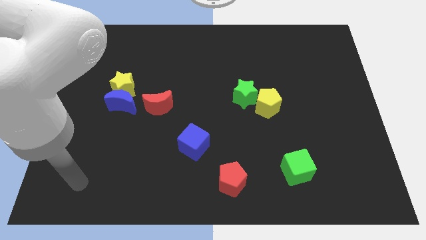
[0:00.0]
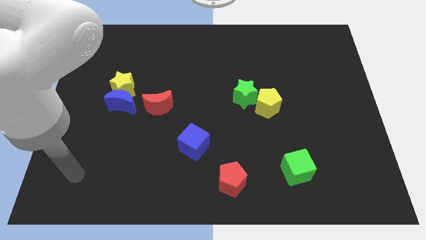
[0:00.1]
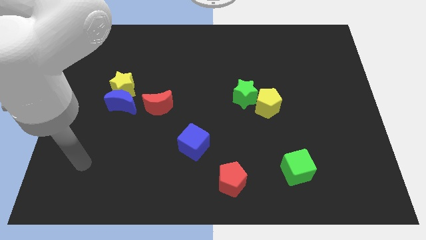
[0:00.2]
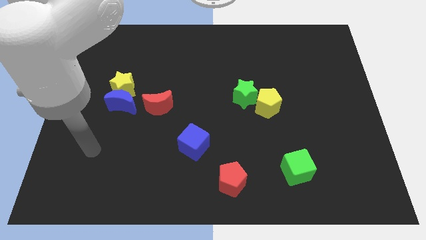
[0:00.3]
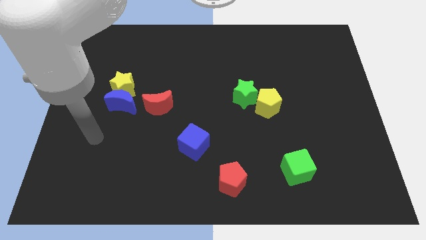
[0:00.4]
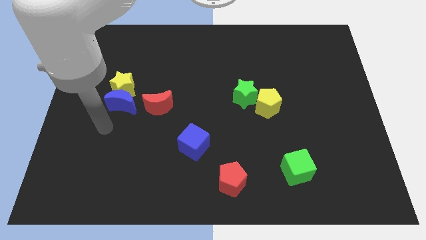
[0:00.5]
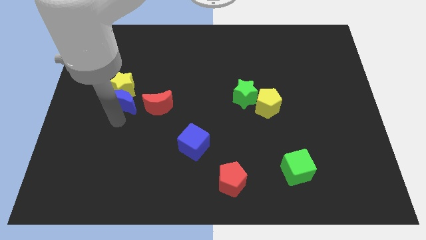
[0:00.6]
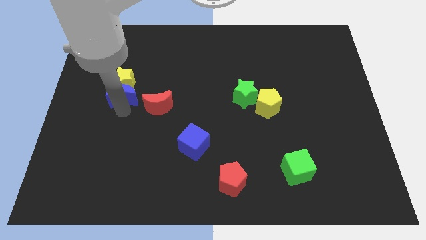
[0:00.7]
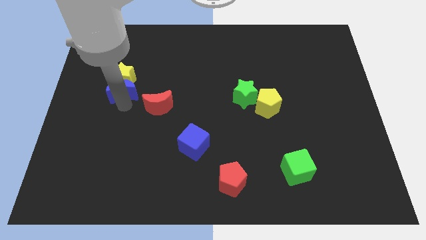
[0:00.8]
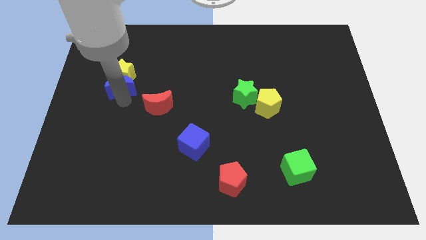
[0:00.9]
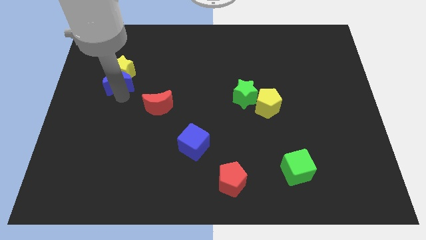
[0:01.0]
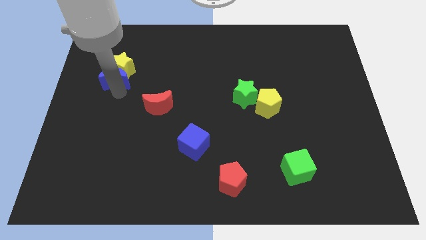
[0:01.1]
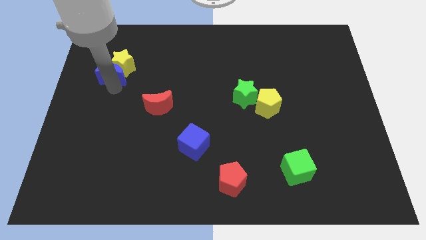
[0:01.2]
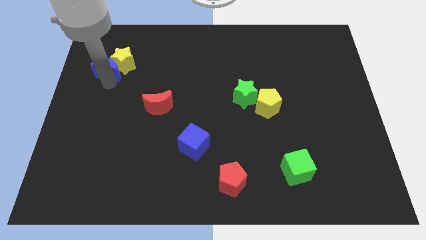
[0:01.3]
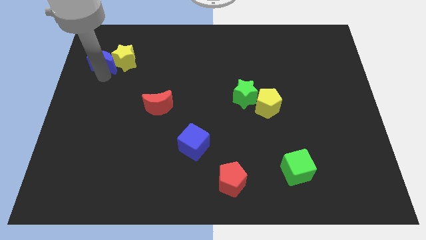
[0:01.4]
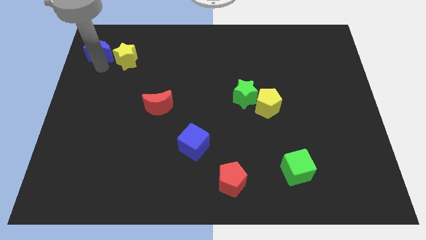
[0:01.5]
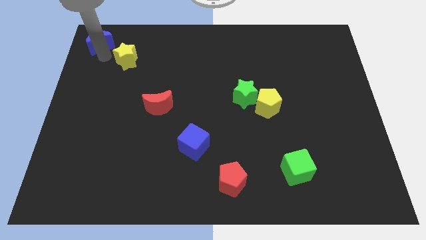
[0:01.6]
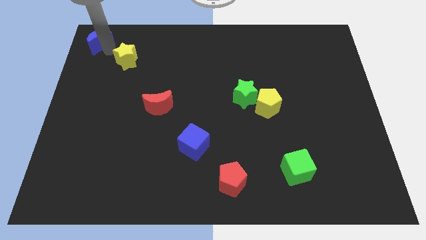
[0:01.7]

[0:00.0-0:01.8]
pull the yellow star apart from the blue moon

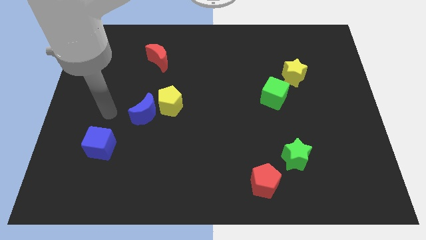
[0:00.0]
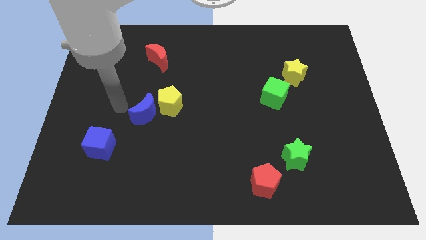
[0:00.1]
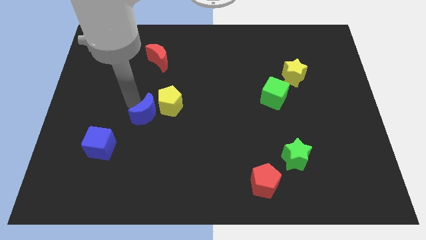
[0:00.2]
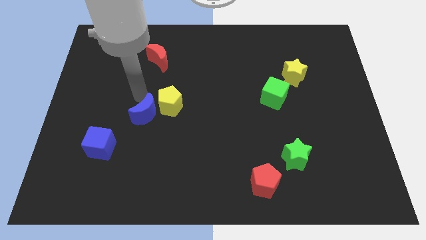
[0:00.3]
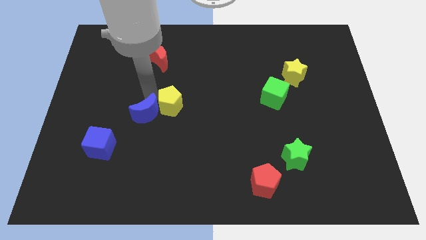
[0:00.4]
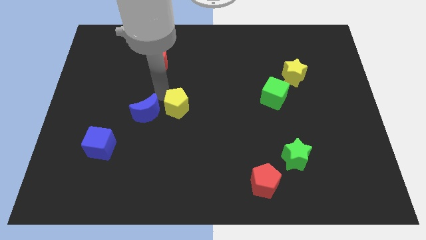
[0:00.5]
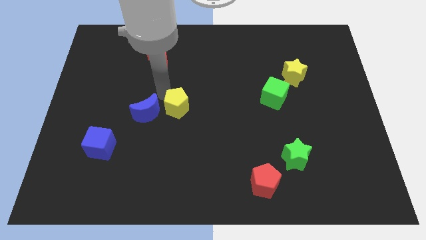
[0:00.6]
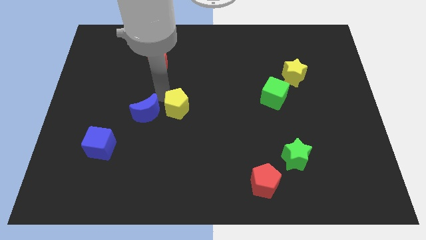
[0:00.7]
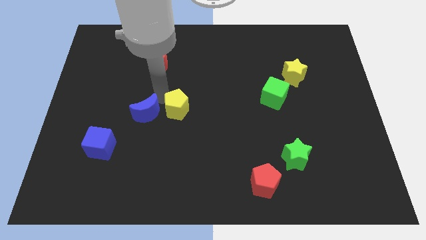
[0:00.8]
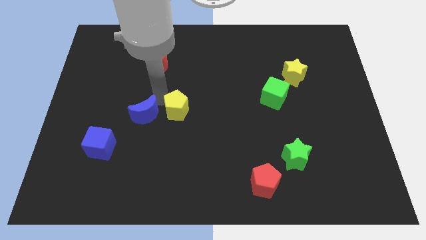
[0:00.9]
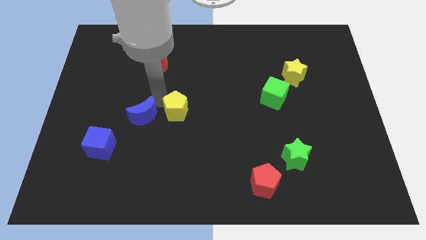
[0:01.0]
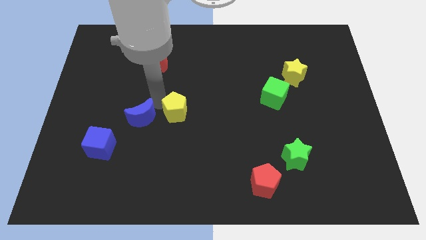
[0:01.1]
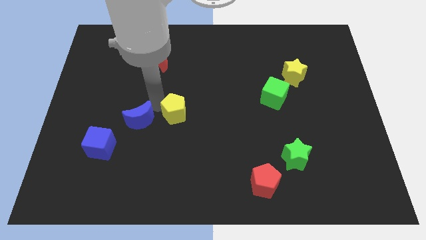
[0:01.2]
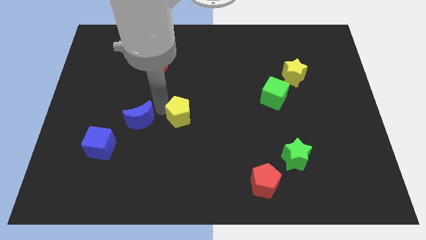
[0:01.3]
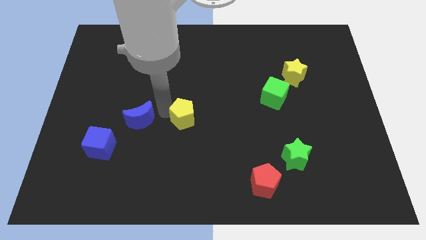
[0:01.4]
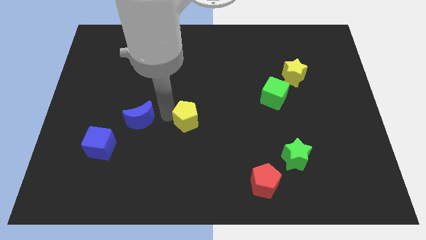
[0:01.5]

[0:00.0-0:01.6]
separate the blue moon from the yellow pentagon

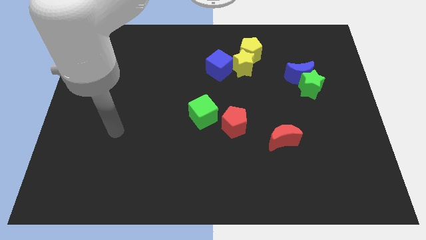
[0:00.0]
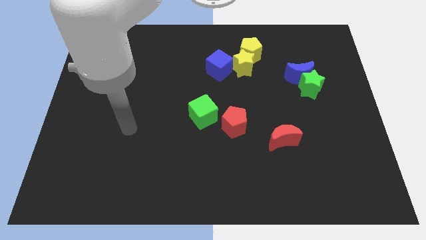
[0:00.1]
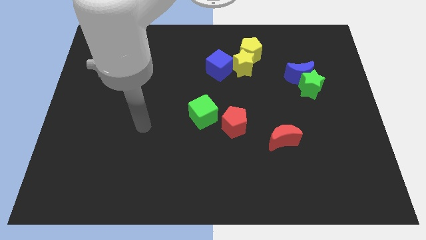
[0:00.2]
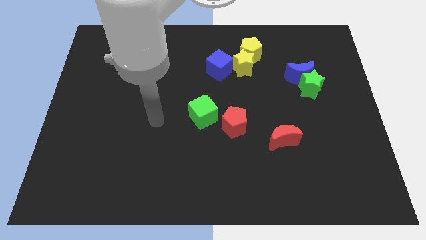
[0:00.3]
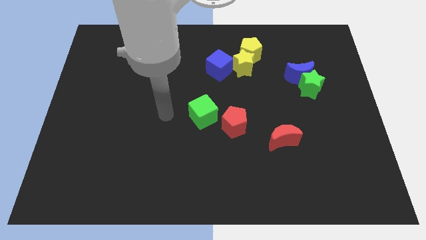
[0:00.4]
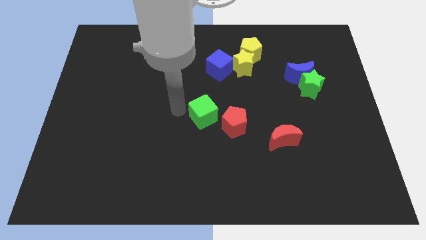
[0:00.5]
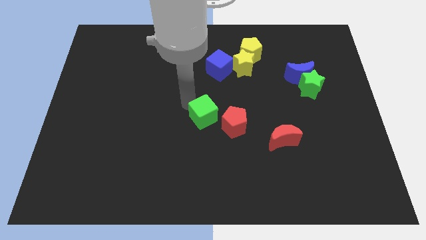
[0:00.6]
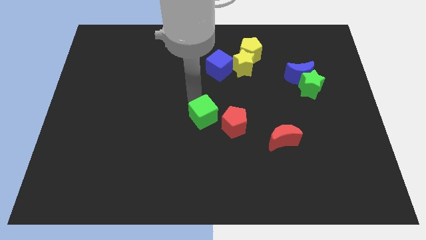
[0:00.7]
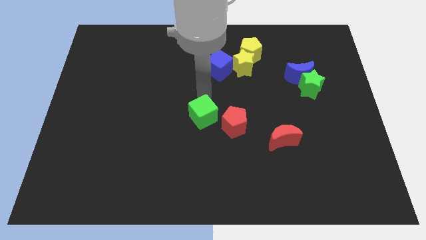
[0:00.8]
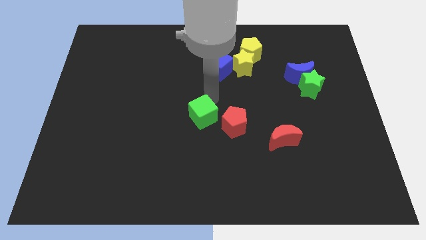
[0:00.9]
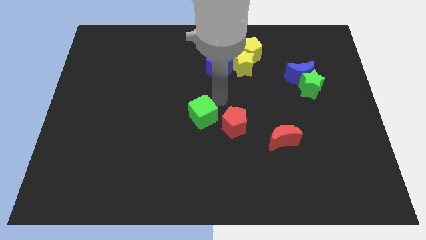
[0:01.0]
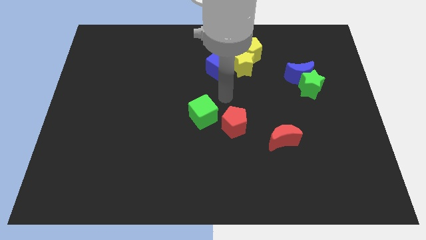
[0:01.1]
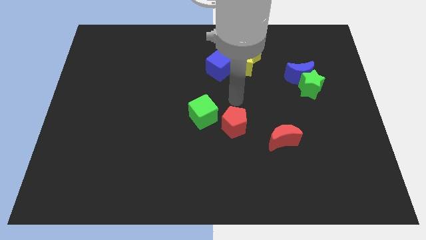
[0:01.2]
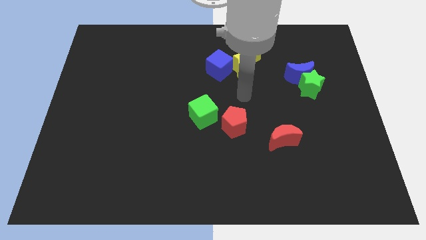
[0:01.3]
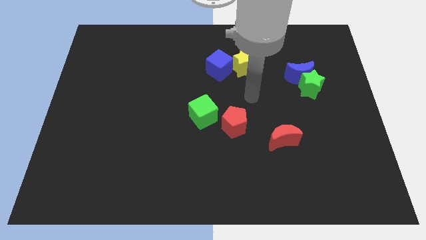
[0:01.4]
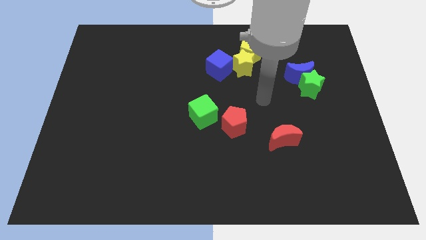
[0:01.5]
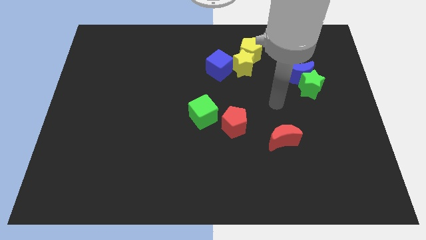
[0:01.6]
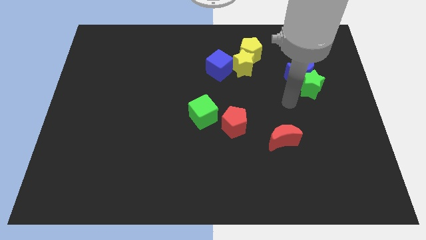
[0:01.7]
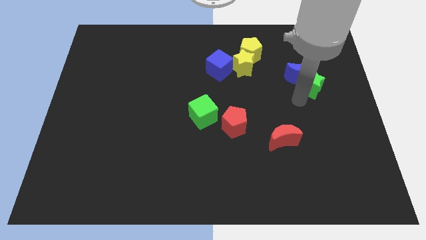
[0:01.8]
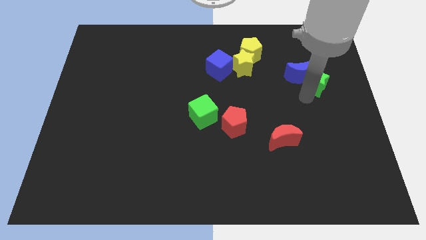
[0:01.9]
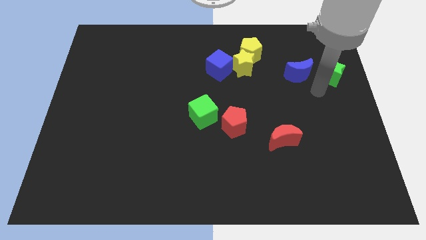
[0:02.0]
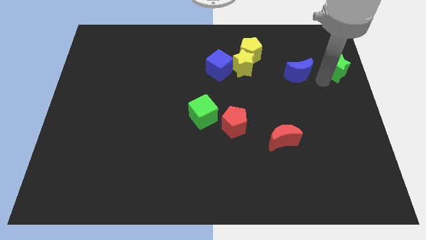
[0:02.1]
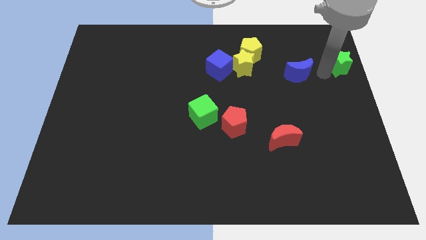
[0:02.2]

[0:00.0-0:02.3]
separate the blue moon from the green star

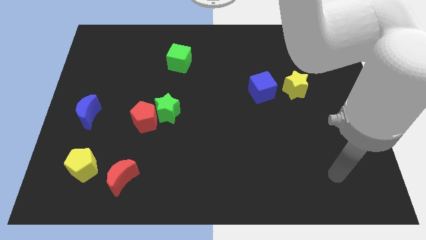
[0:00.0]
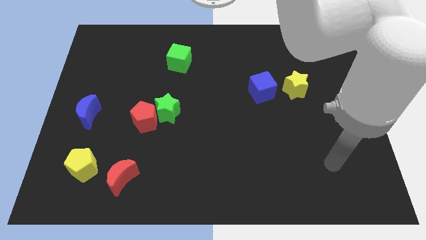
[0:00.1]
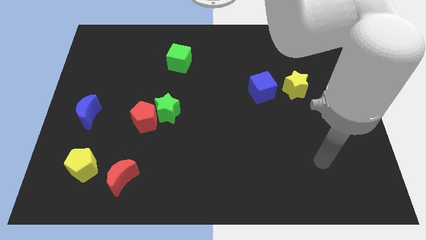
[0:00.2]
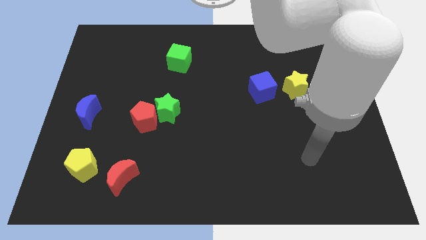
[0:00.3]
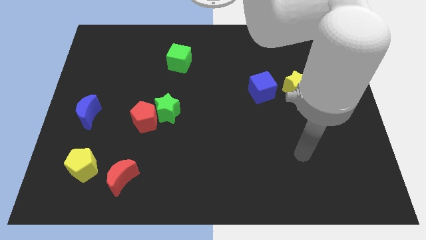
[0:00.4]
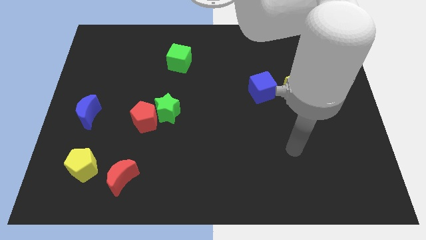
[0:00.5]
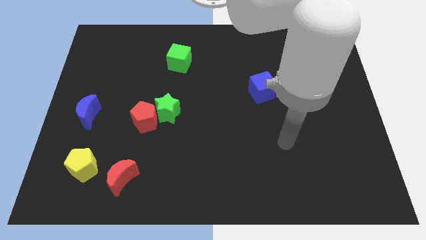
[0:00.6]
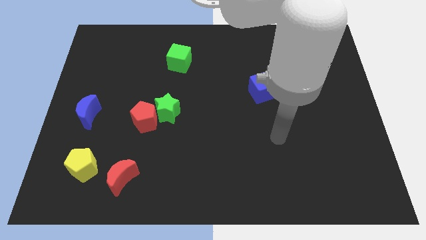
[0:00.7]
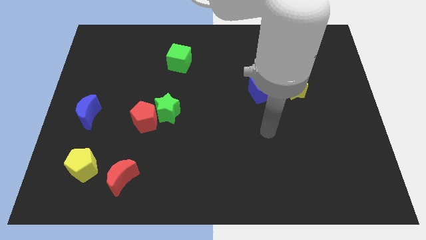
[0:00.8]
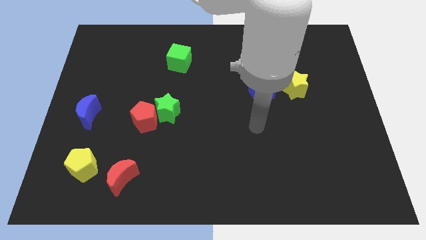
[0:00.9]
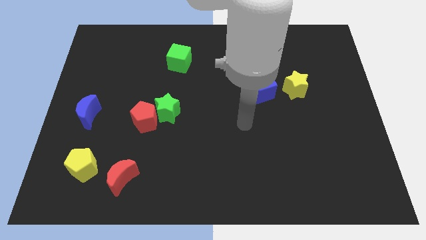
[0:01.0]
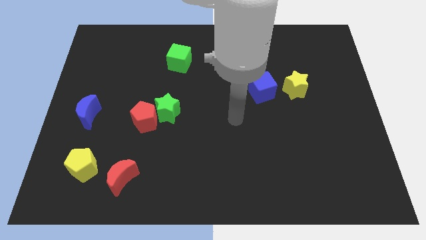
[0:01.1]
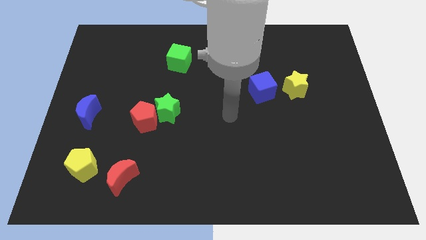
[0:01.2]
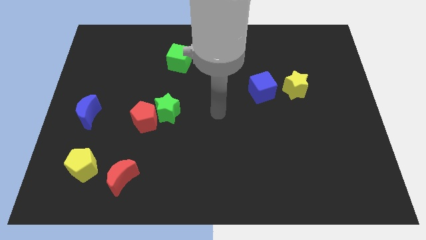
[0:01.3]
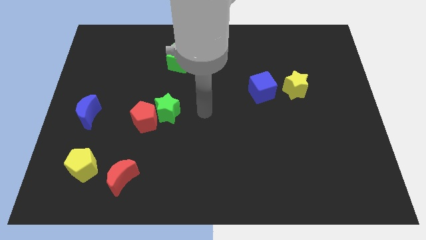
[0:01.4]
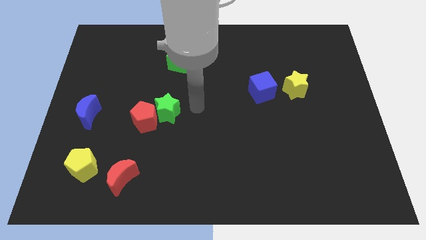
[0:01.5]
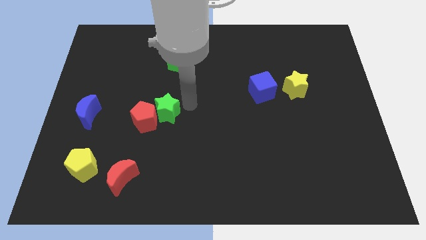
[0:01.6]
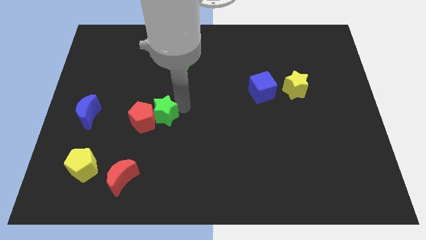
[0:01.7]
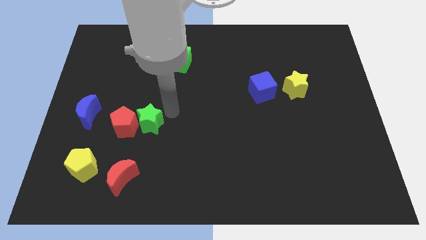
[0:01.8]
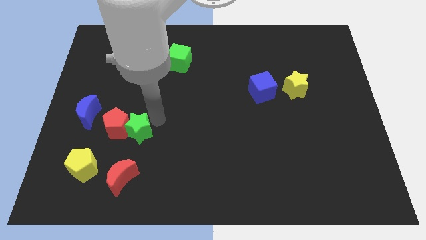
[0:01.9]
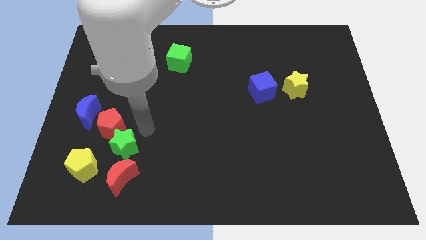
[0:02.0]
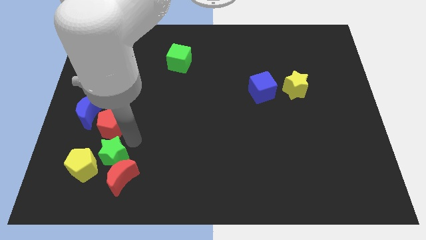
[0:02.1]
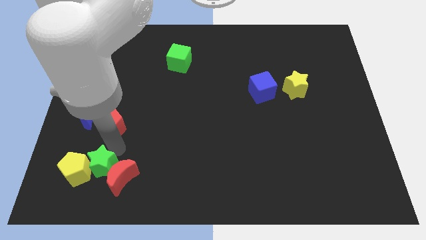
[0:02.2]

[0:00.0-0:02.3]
pull the red pentagon apart from the green star

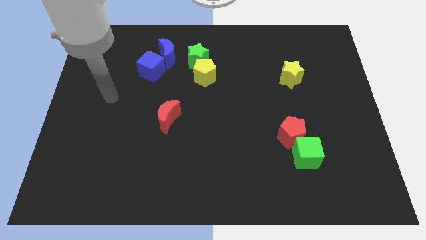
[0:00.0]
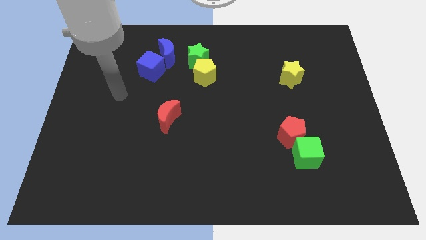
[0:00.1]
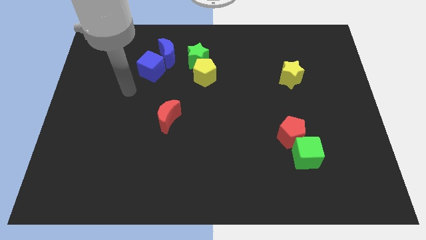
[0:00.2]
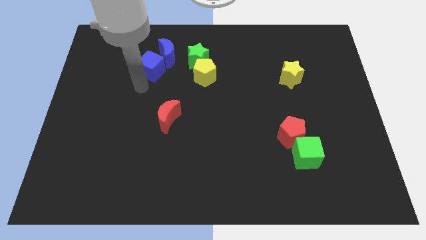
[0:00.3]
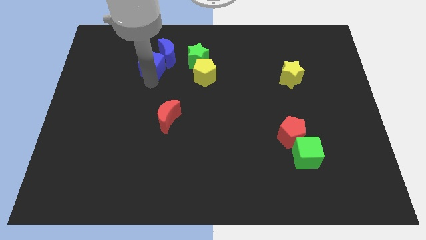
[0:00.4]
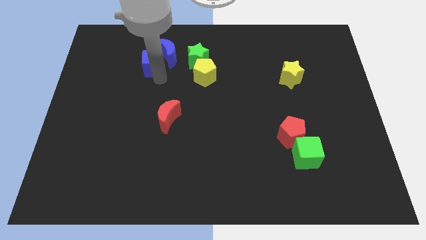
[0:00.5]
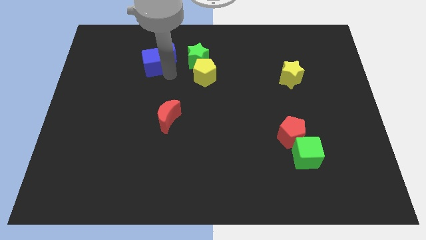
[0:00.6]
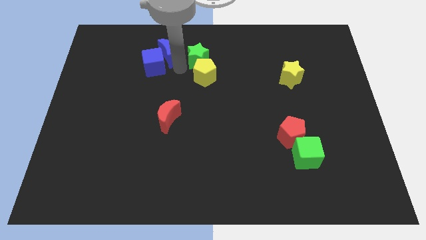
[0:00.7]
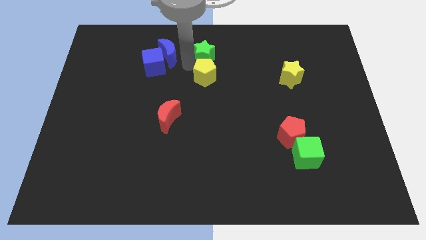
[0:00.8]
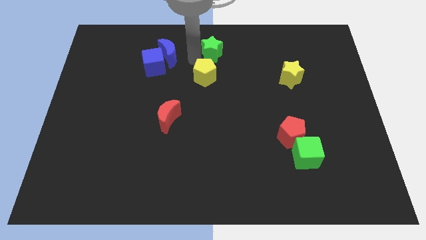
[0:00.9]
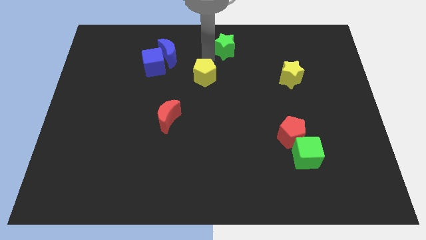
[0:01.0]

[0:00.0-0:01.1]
pull the yellow pentagon apart from the green star
